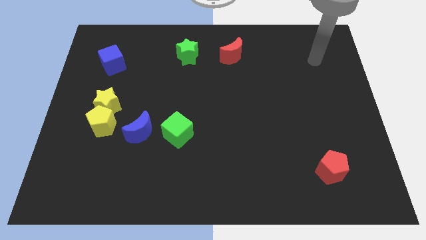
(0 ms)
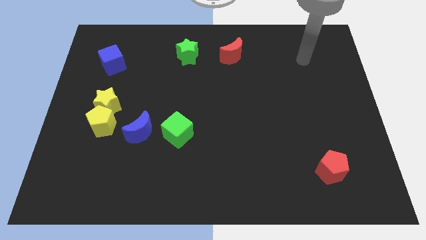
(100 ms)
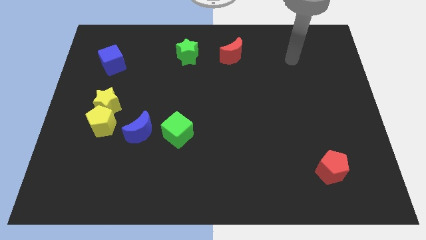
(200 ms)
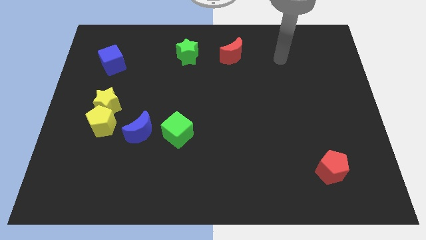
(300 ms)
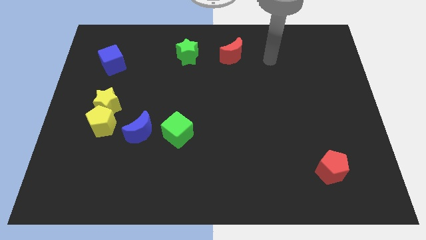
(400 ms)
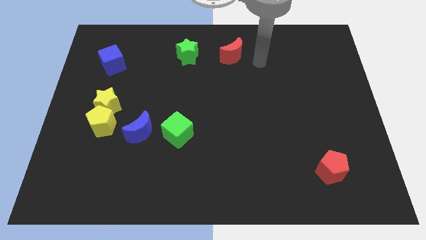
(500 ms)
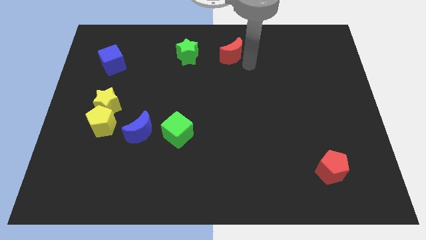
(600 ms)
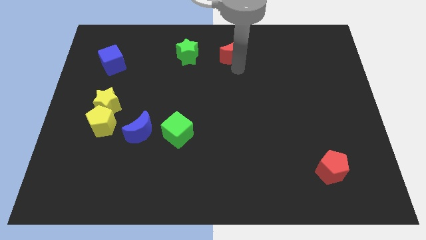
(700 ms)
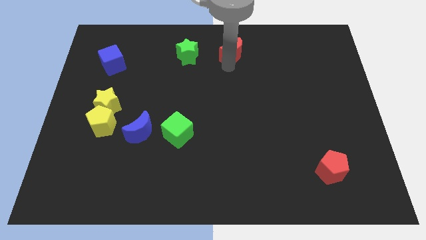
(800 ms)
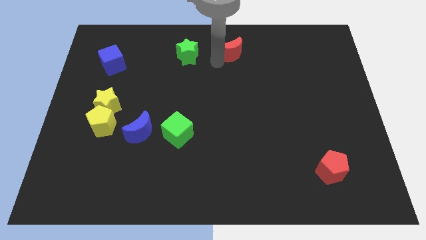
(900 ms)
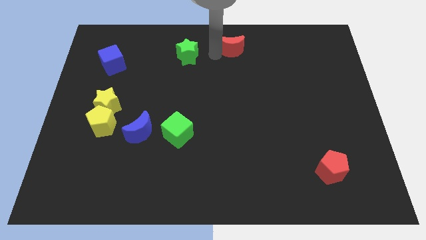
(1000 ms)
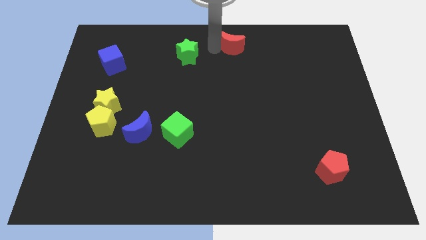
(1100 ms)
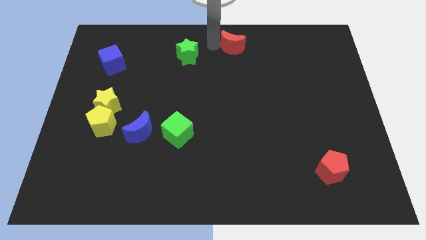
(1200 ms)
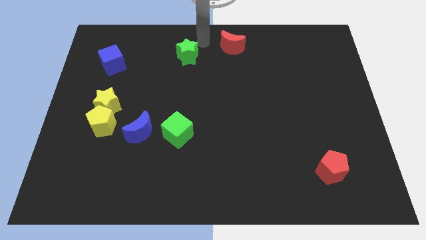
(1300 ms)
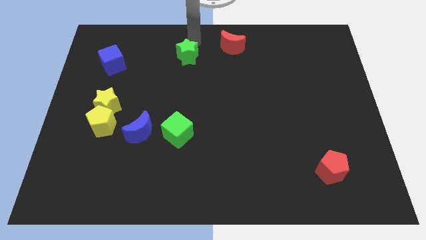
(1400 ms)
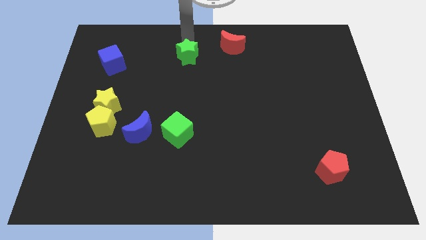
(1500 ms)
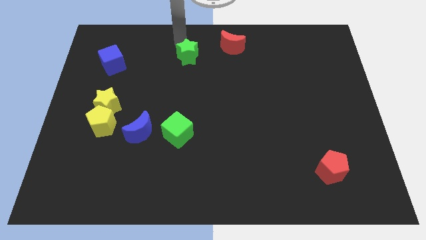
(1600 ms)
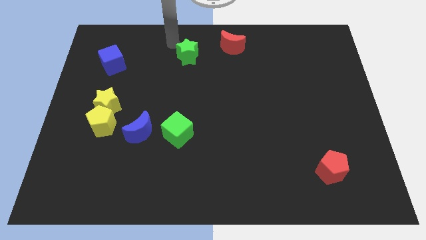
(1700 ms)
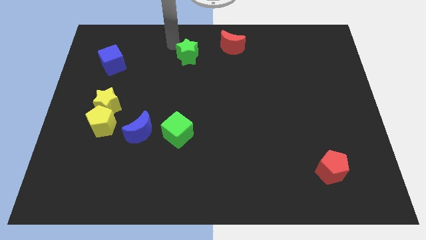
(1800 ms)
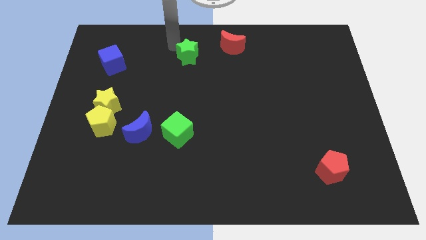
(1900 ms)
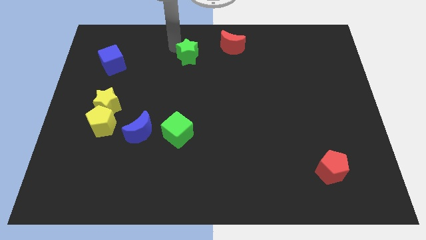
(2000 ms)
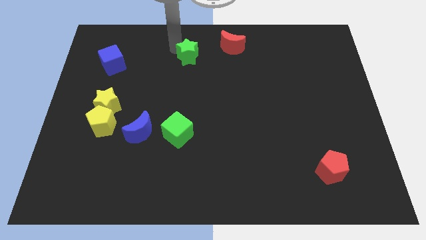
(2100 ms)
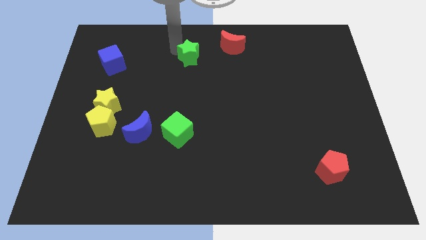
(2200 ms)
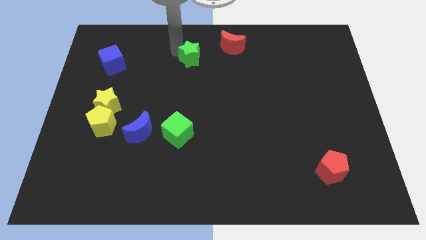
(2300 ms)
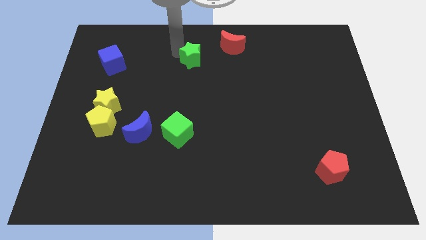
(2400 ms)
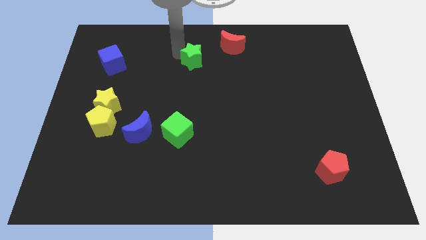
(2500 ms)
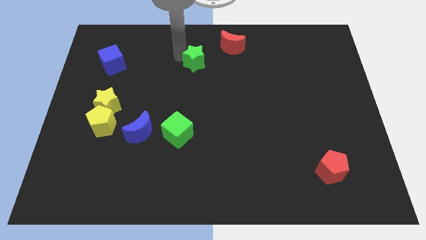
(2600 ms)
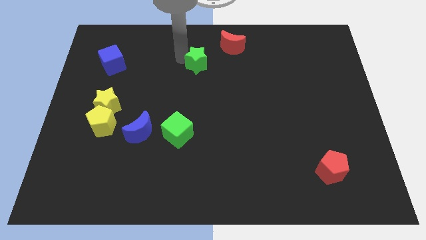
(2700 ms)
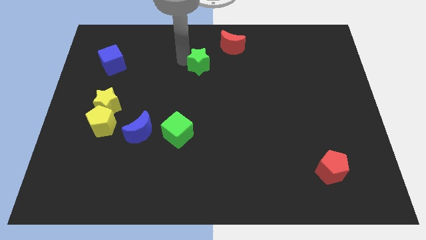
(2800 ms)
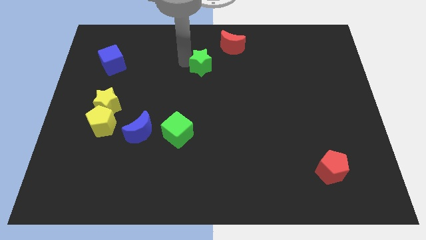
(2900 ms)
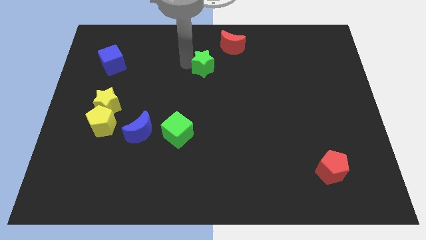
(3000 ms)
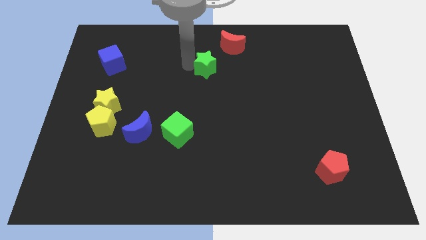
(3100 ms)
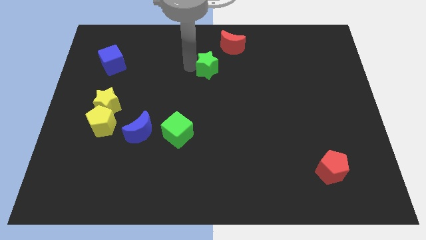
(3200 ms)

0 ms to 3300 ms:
move the green star somewhat down and to the right

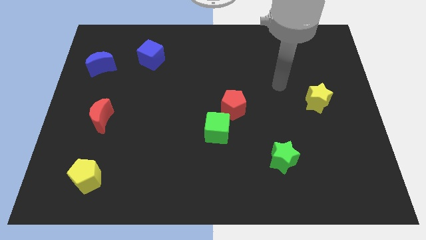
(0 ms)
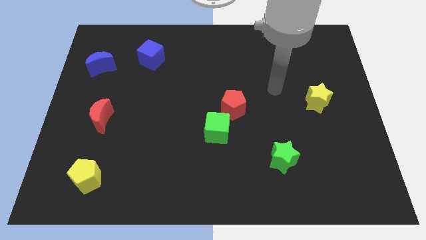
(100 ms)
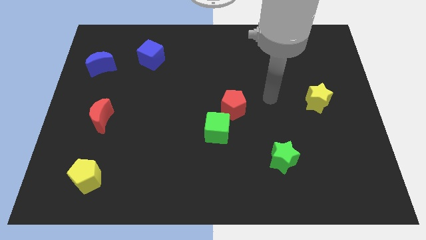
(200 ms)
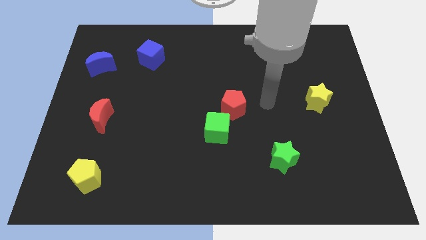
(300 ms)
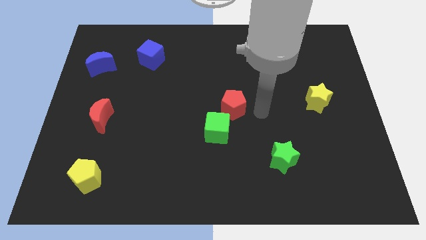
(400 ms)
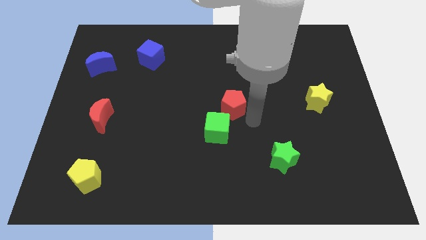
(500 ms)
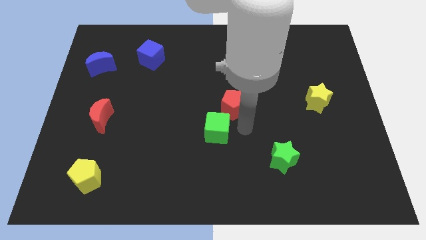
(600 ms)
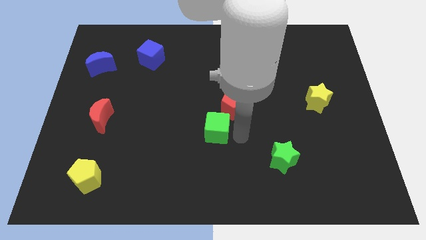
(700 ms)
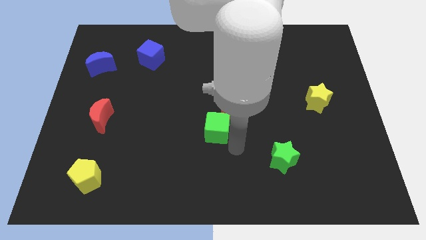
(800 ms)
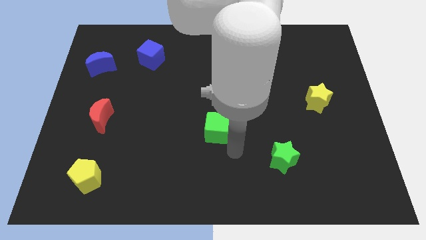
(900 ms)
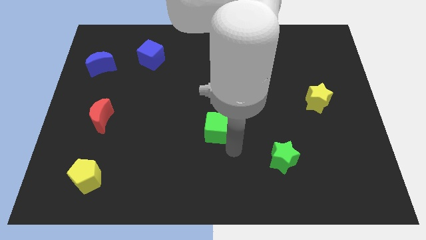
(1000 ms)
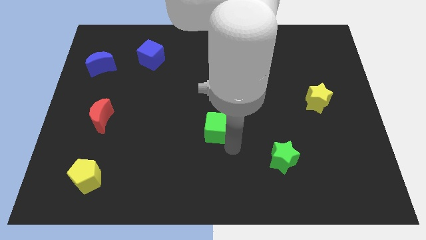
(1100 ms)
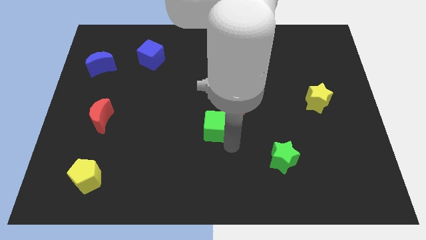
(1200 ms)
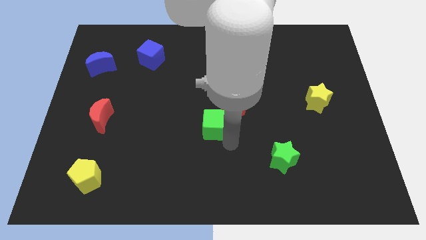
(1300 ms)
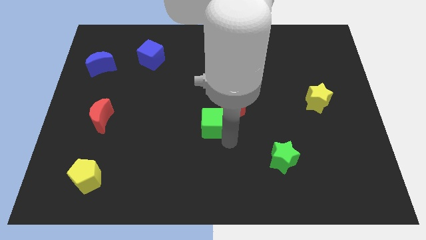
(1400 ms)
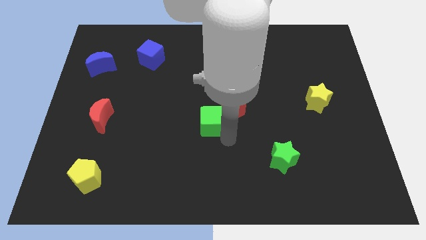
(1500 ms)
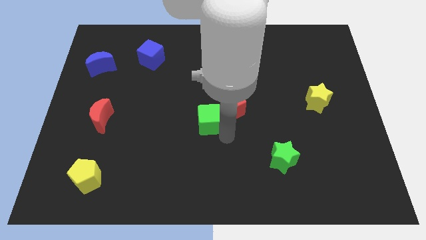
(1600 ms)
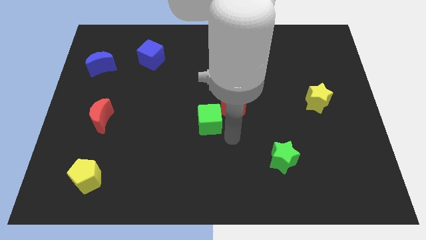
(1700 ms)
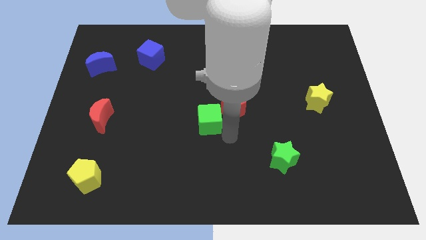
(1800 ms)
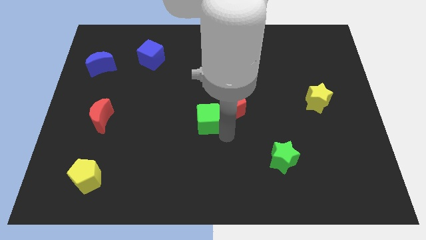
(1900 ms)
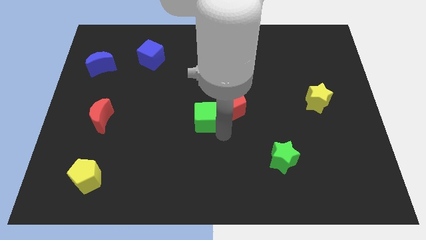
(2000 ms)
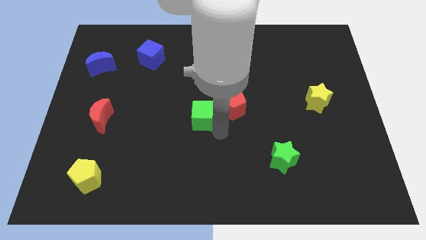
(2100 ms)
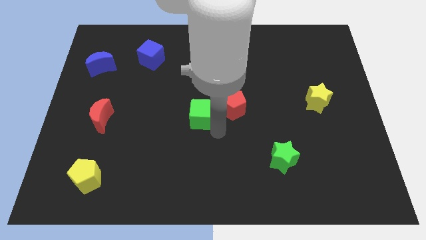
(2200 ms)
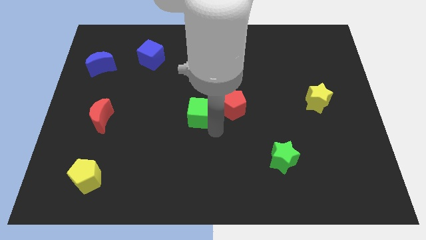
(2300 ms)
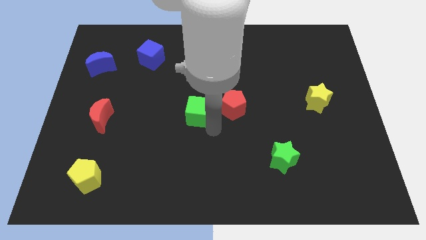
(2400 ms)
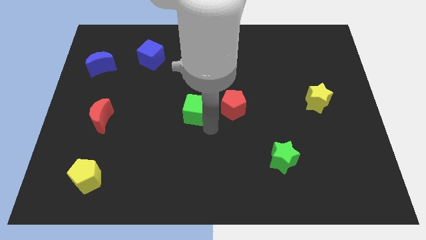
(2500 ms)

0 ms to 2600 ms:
slightly slide the green cube diagonally up and left

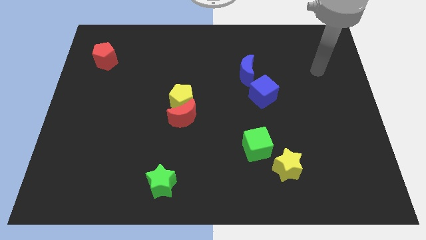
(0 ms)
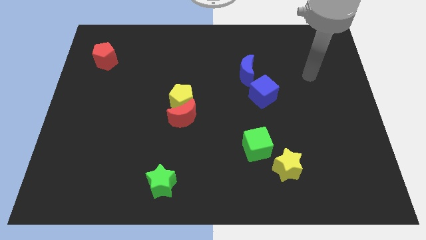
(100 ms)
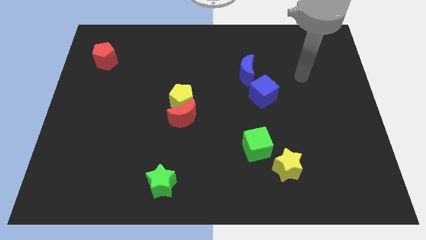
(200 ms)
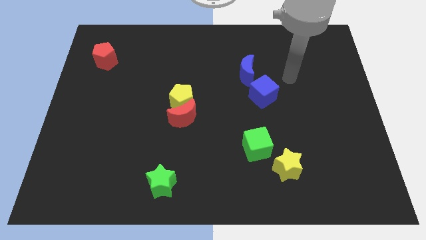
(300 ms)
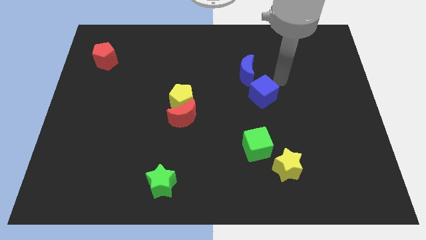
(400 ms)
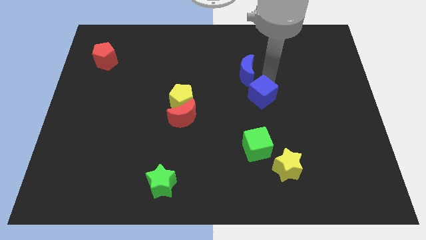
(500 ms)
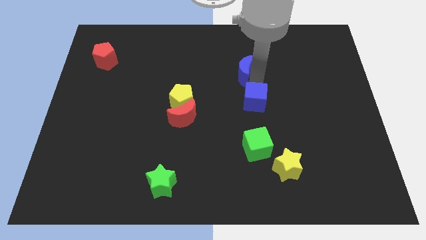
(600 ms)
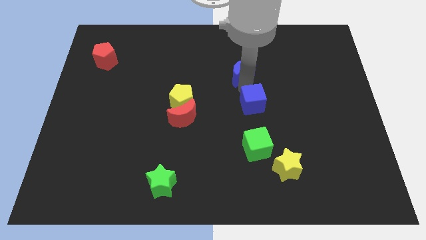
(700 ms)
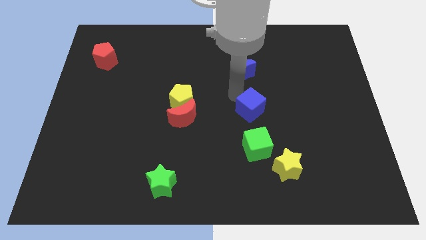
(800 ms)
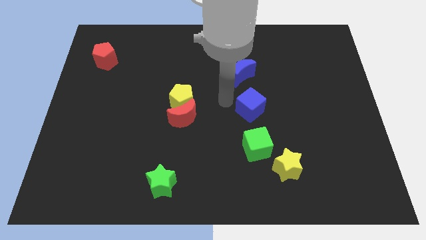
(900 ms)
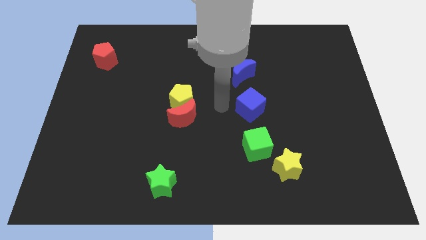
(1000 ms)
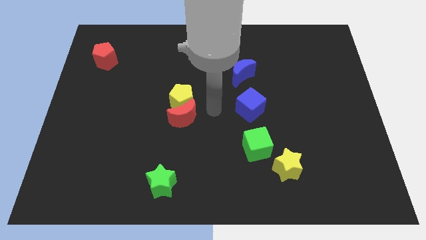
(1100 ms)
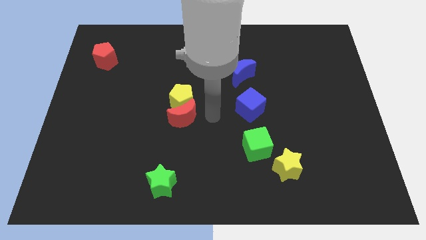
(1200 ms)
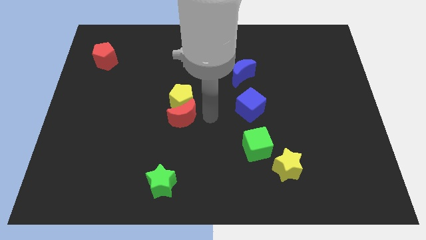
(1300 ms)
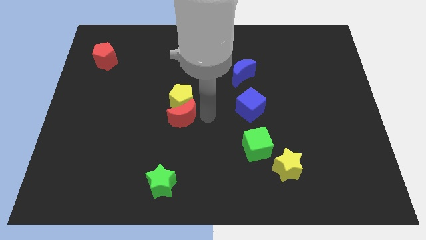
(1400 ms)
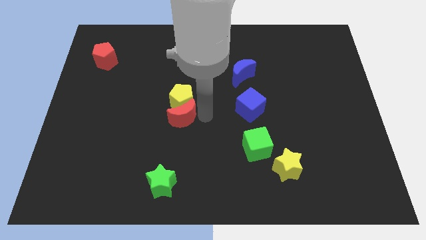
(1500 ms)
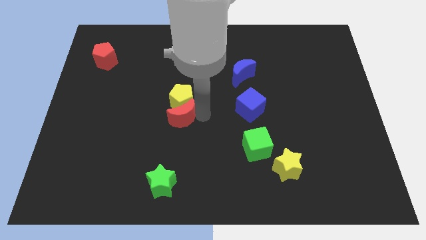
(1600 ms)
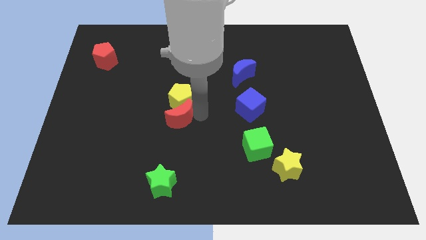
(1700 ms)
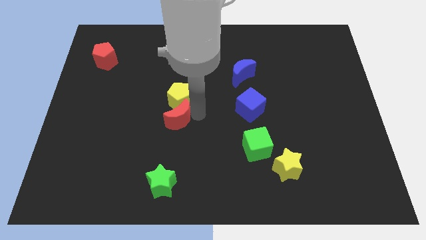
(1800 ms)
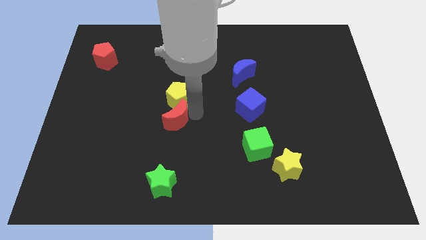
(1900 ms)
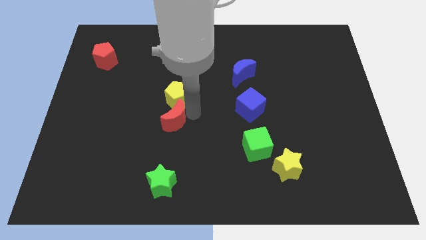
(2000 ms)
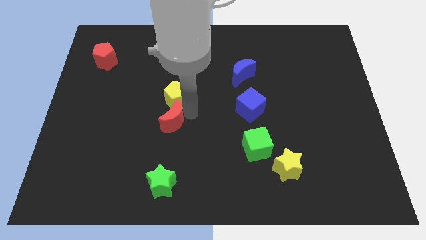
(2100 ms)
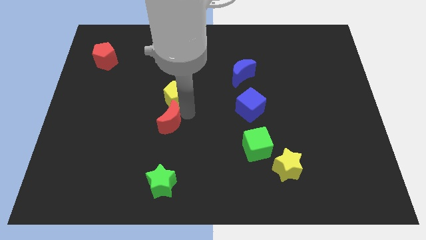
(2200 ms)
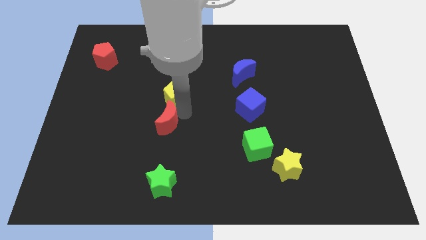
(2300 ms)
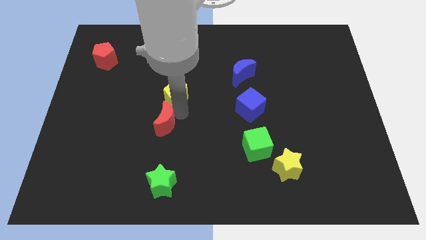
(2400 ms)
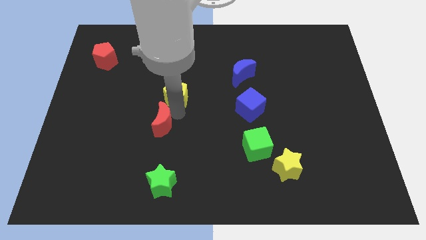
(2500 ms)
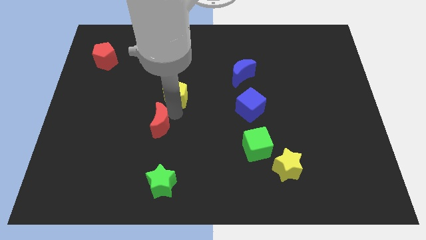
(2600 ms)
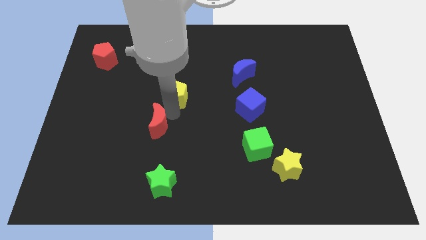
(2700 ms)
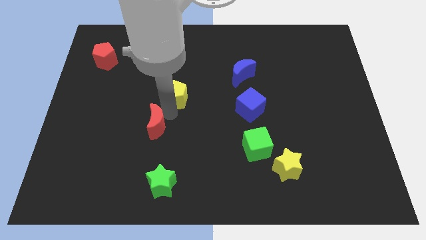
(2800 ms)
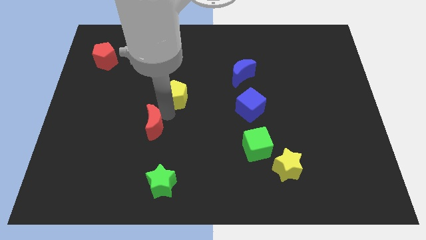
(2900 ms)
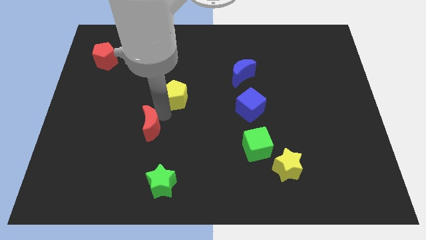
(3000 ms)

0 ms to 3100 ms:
slightly push the red moon left
